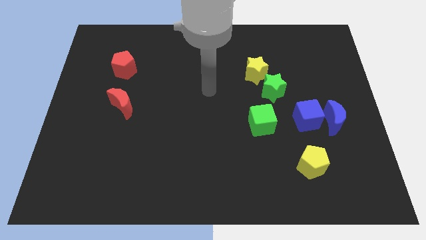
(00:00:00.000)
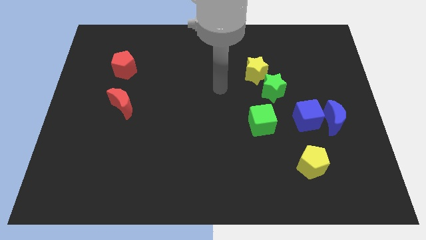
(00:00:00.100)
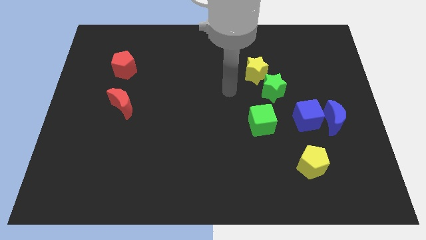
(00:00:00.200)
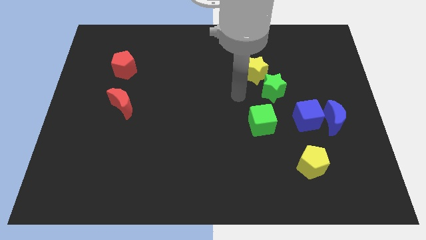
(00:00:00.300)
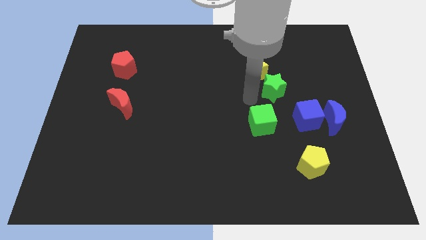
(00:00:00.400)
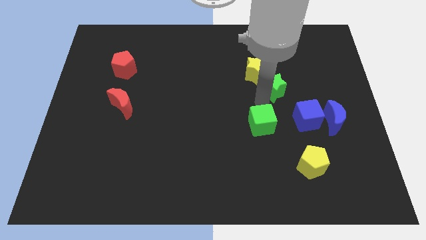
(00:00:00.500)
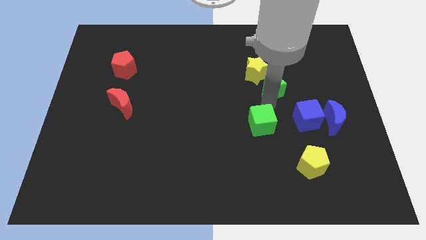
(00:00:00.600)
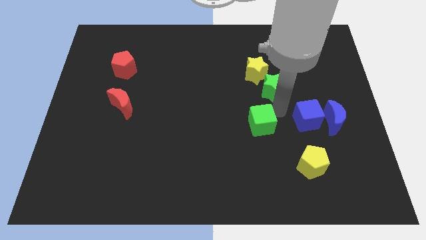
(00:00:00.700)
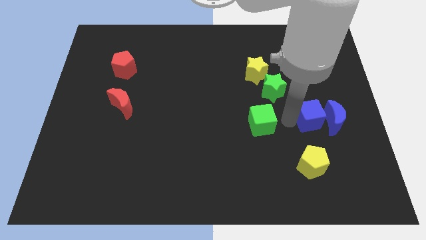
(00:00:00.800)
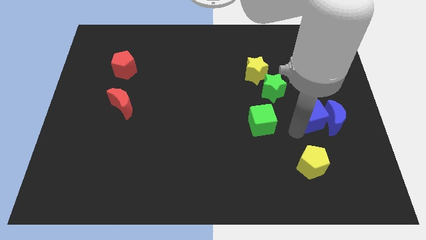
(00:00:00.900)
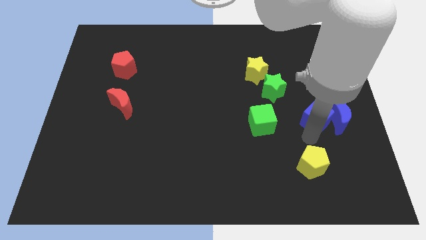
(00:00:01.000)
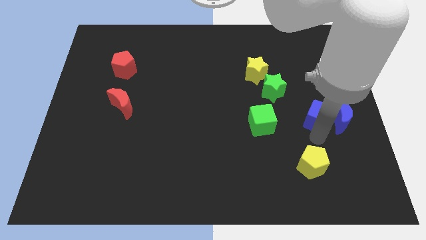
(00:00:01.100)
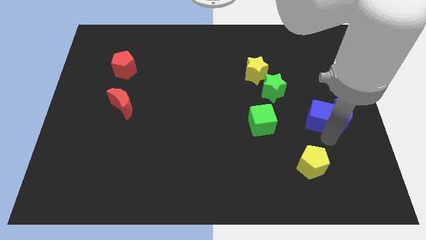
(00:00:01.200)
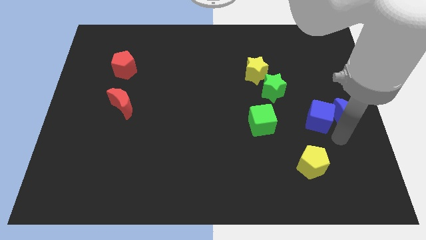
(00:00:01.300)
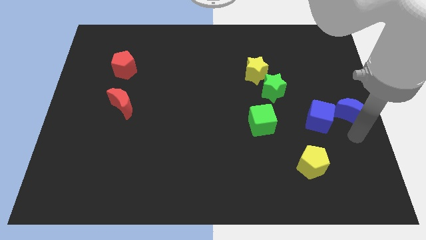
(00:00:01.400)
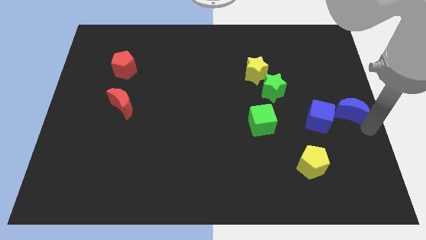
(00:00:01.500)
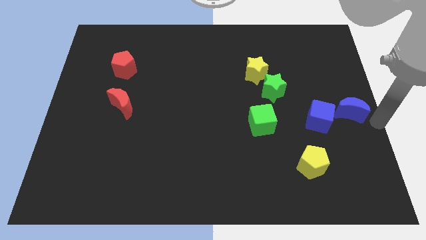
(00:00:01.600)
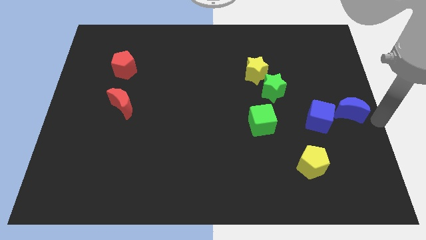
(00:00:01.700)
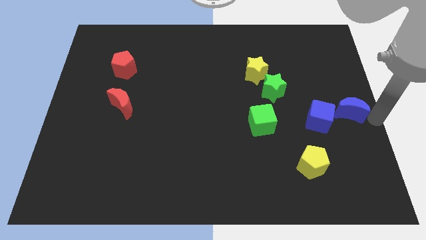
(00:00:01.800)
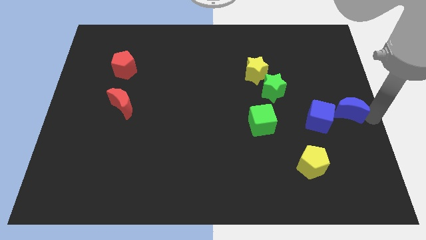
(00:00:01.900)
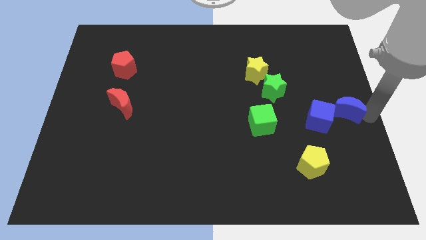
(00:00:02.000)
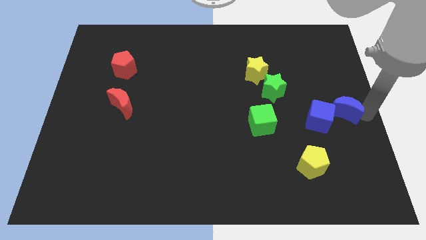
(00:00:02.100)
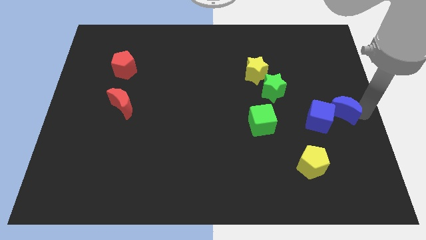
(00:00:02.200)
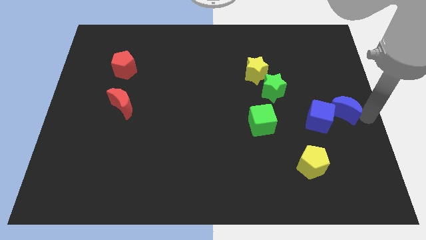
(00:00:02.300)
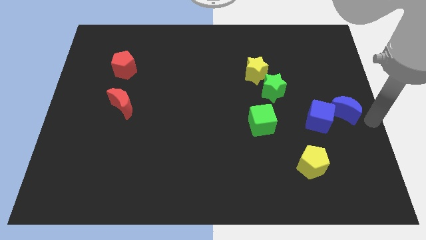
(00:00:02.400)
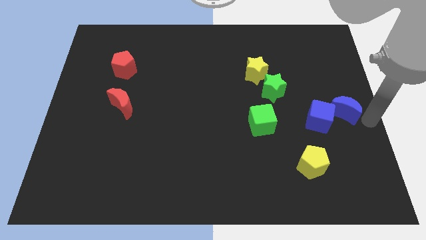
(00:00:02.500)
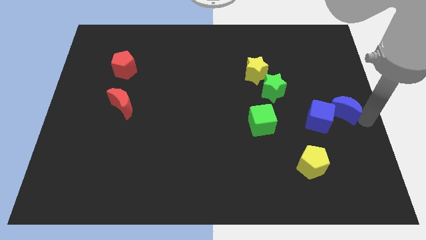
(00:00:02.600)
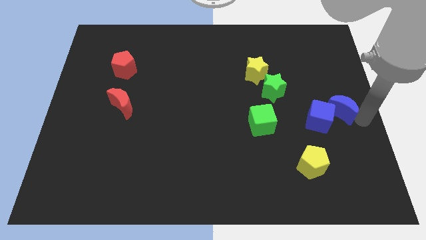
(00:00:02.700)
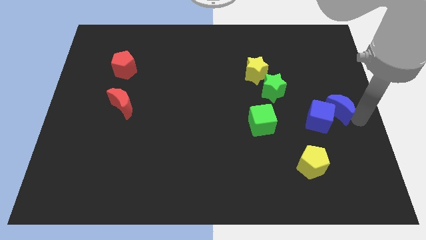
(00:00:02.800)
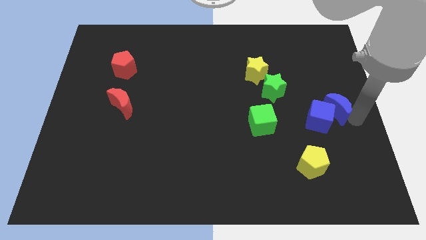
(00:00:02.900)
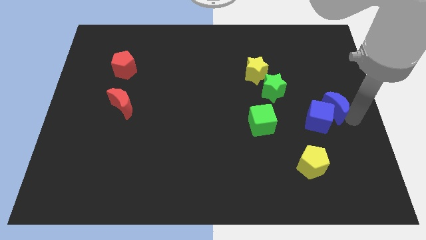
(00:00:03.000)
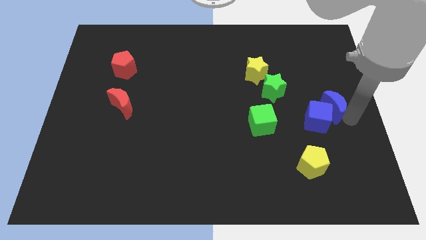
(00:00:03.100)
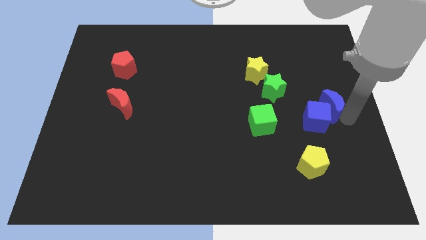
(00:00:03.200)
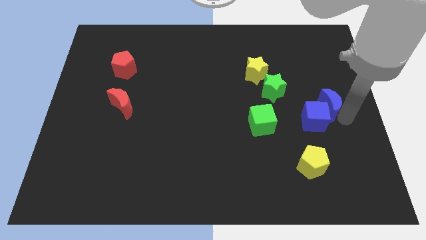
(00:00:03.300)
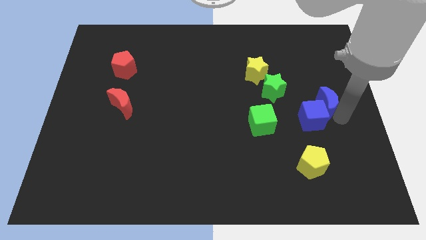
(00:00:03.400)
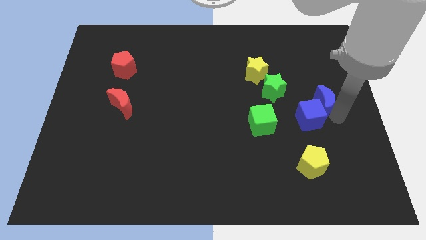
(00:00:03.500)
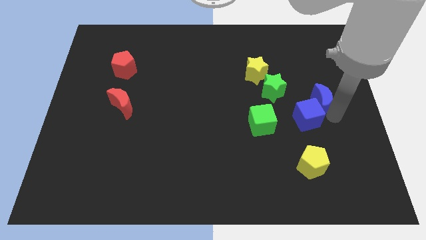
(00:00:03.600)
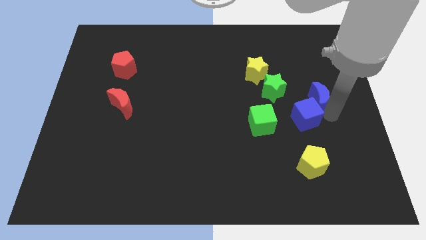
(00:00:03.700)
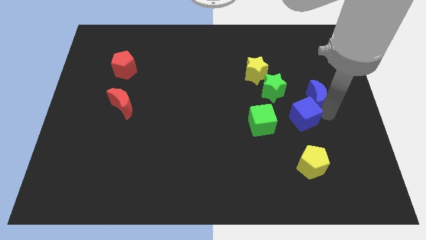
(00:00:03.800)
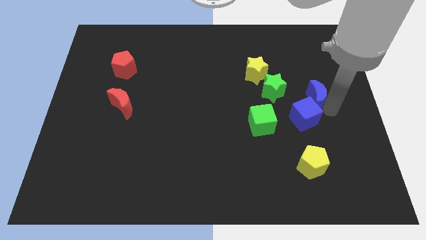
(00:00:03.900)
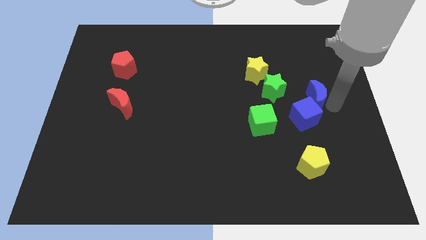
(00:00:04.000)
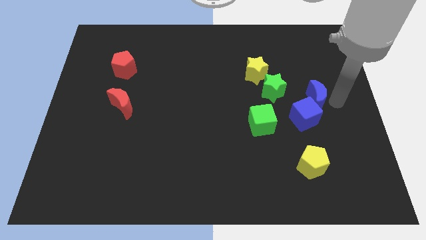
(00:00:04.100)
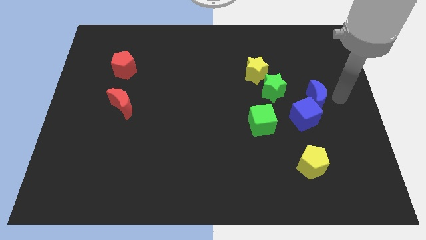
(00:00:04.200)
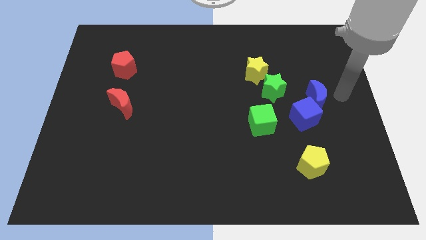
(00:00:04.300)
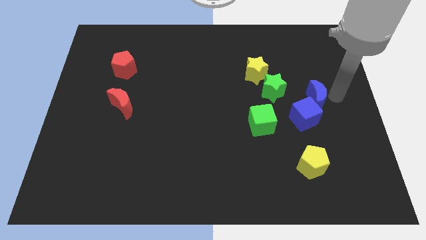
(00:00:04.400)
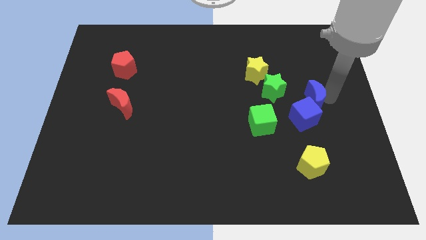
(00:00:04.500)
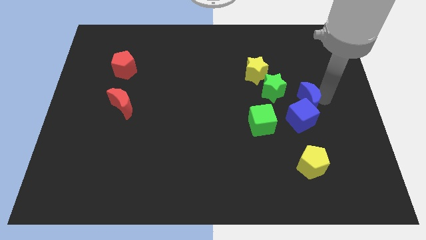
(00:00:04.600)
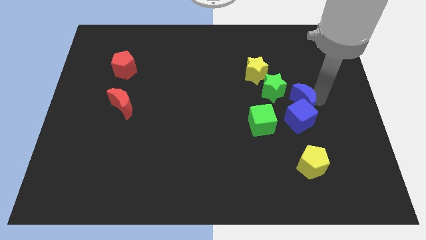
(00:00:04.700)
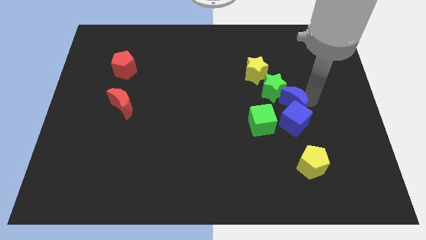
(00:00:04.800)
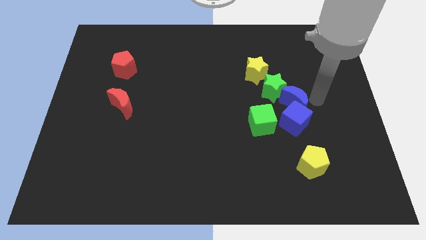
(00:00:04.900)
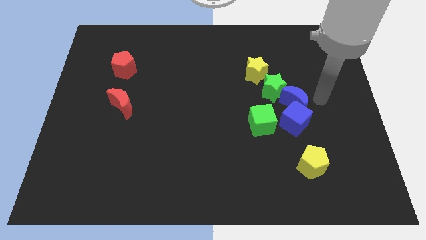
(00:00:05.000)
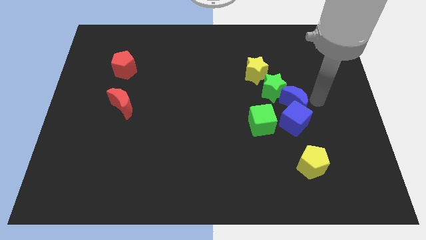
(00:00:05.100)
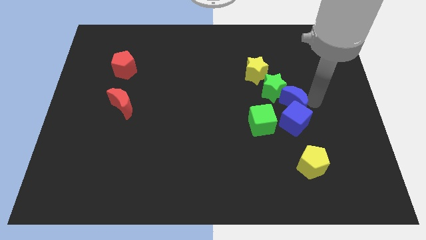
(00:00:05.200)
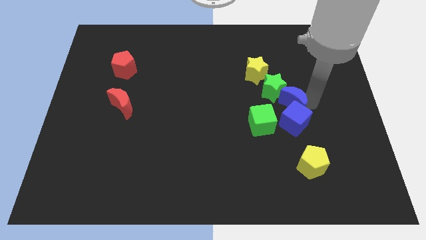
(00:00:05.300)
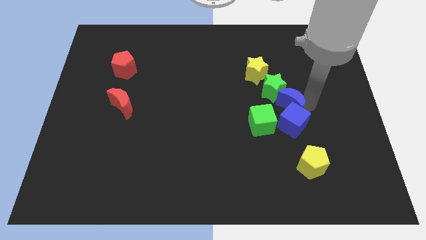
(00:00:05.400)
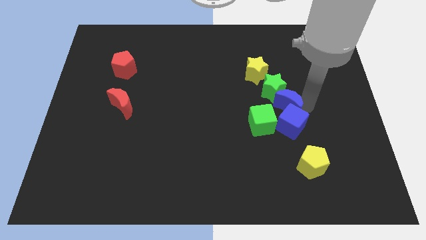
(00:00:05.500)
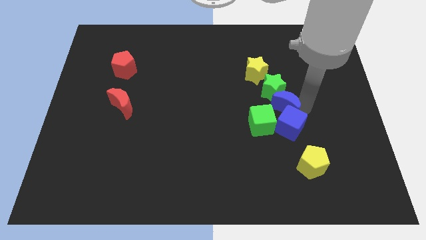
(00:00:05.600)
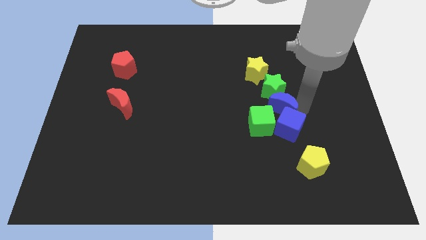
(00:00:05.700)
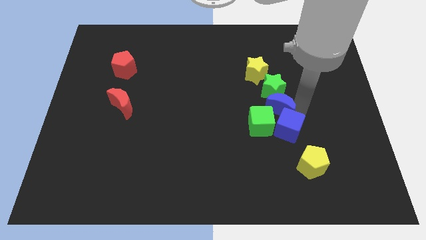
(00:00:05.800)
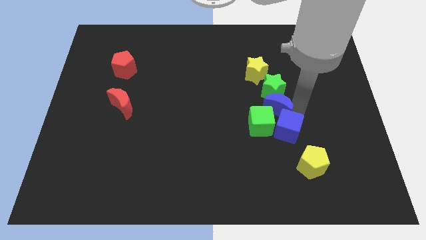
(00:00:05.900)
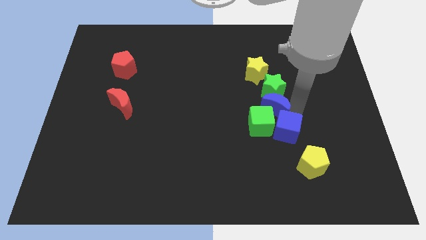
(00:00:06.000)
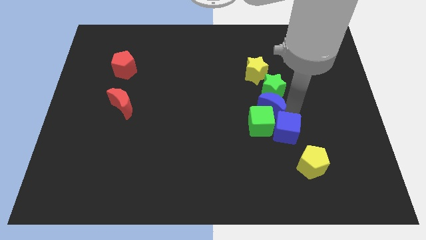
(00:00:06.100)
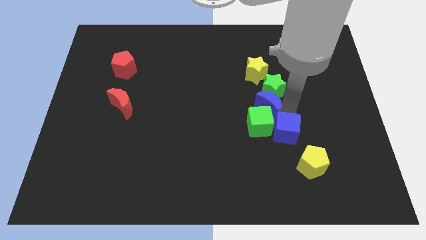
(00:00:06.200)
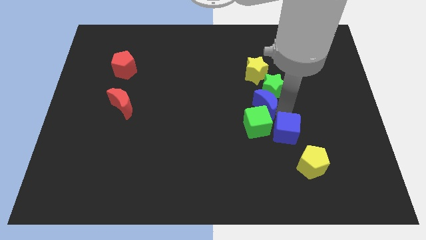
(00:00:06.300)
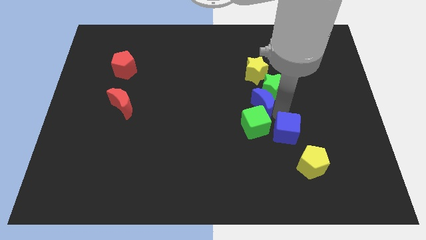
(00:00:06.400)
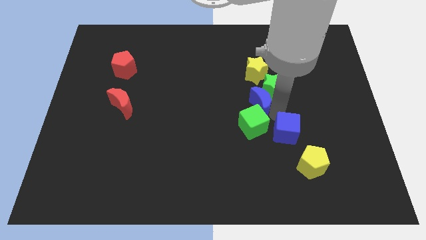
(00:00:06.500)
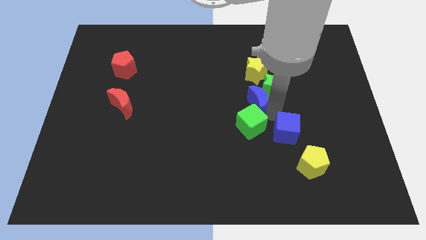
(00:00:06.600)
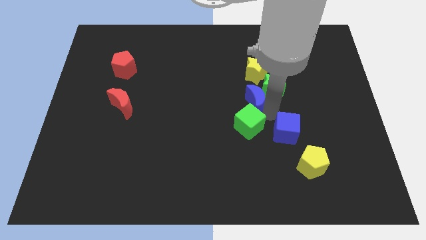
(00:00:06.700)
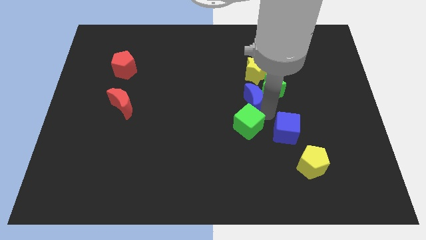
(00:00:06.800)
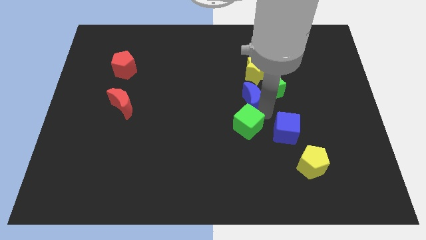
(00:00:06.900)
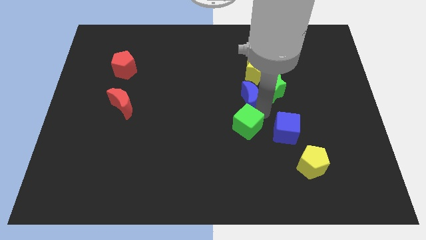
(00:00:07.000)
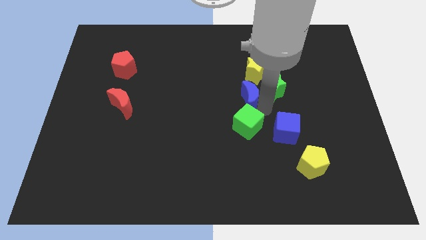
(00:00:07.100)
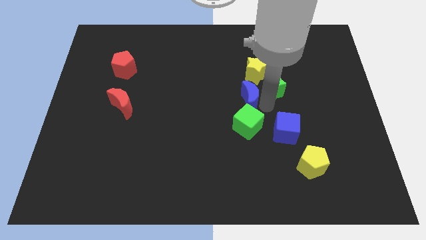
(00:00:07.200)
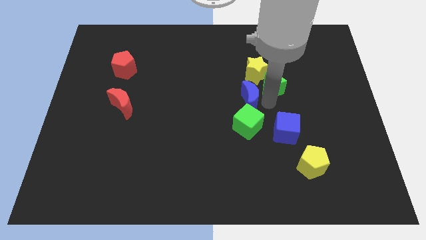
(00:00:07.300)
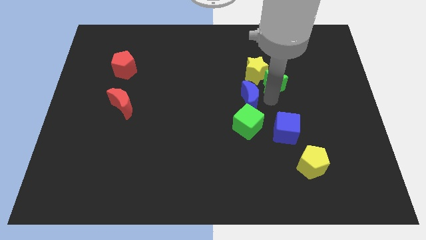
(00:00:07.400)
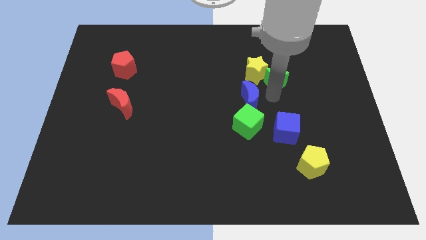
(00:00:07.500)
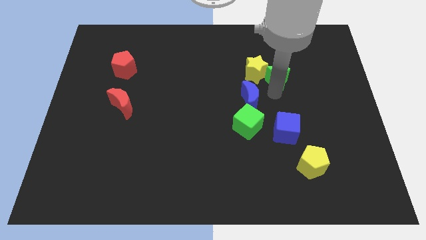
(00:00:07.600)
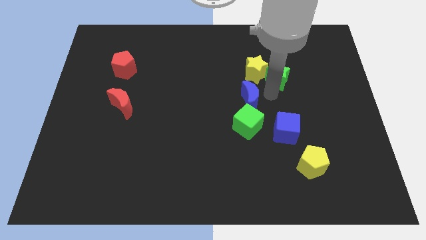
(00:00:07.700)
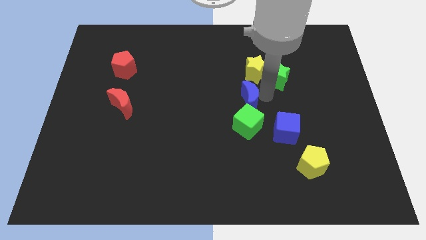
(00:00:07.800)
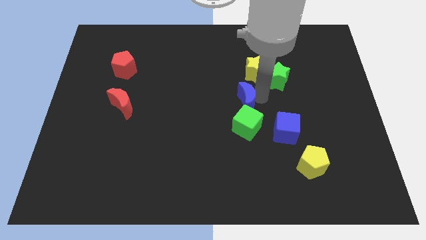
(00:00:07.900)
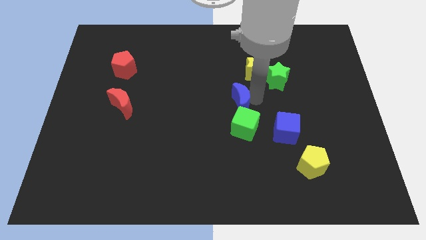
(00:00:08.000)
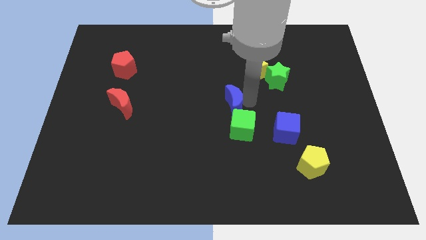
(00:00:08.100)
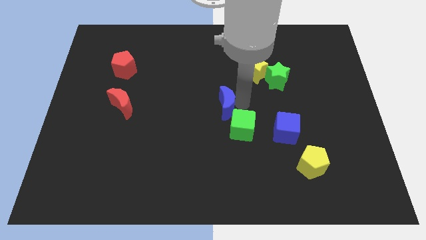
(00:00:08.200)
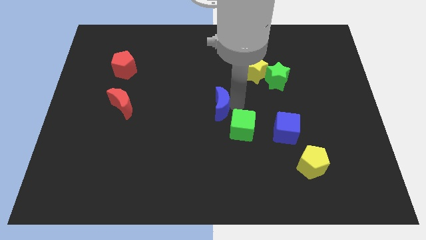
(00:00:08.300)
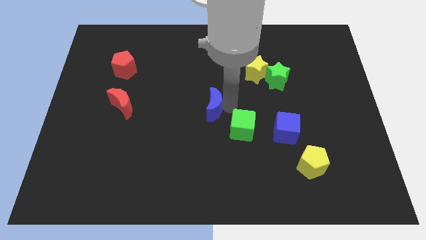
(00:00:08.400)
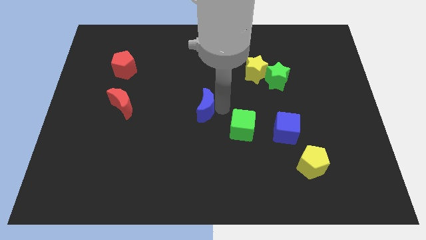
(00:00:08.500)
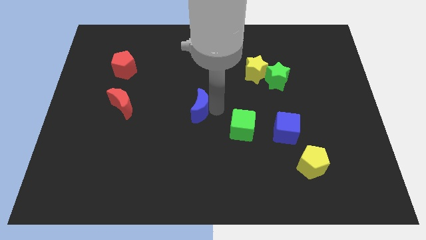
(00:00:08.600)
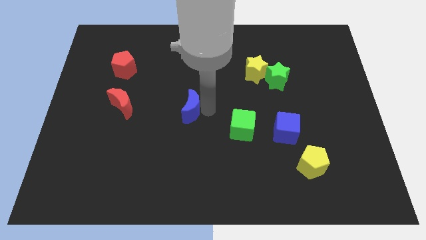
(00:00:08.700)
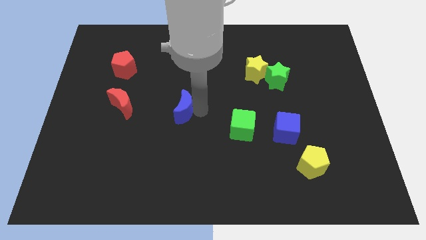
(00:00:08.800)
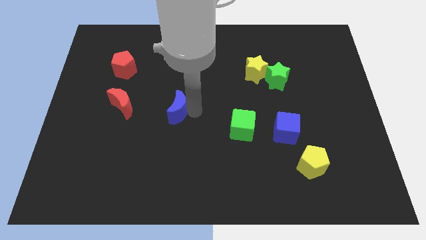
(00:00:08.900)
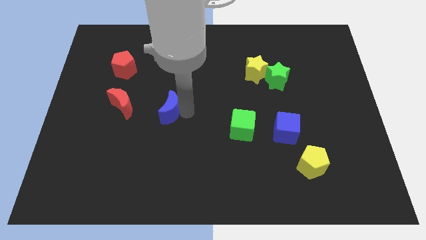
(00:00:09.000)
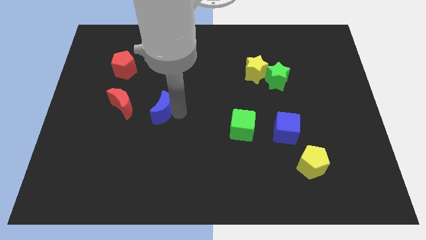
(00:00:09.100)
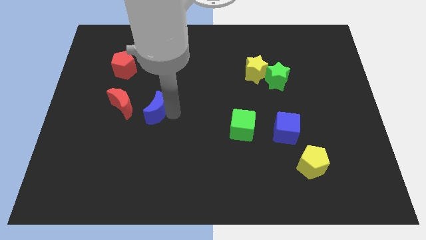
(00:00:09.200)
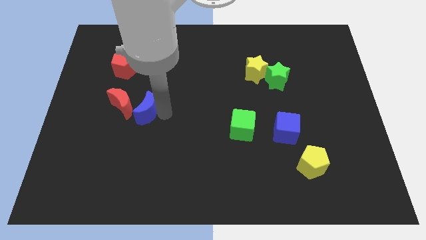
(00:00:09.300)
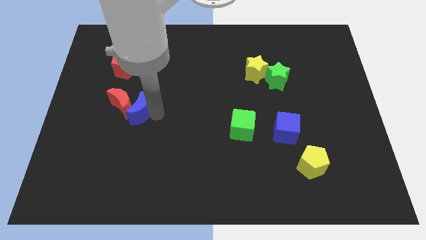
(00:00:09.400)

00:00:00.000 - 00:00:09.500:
move the blue moon towards the red moon
